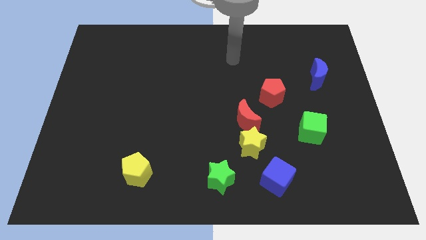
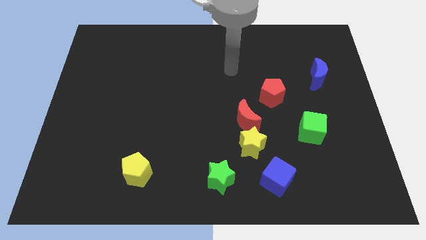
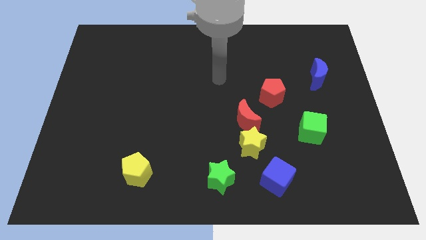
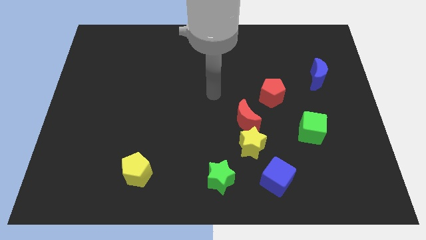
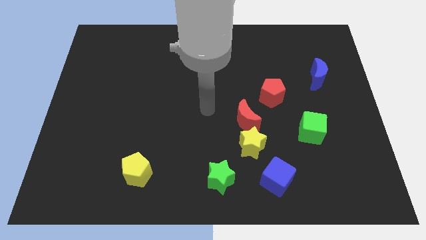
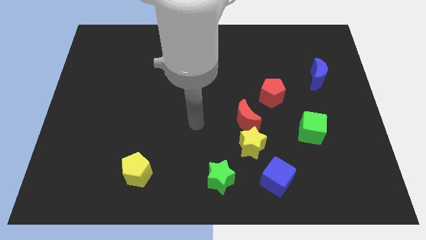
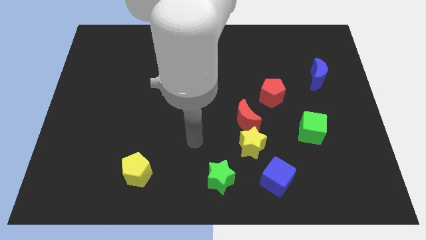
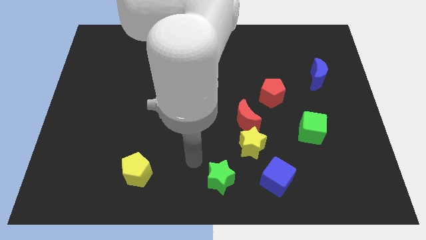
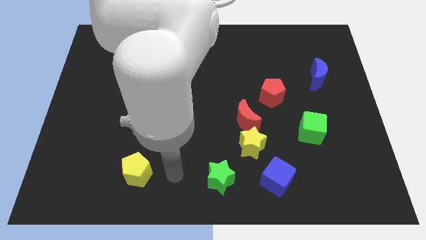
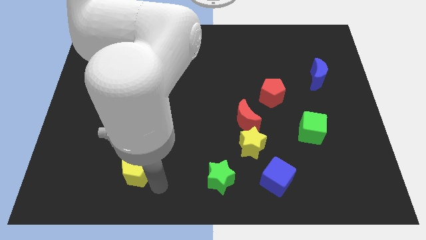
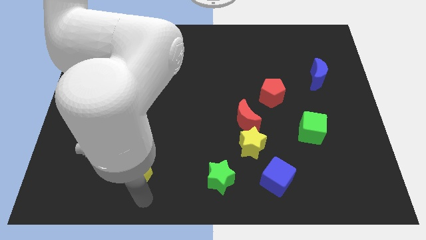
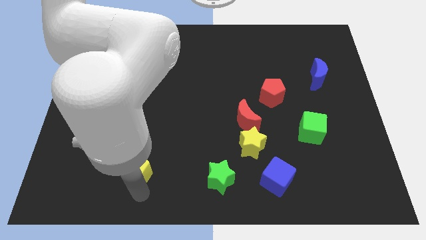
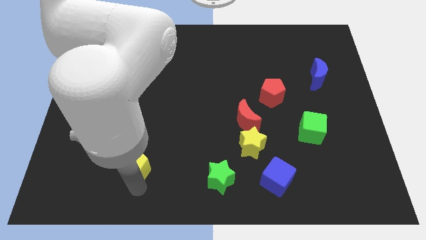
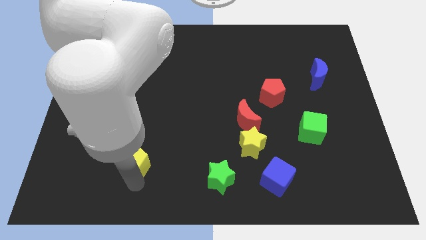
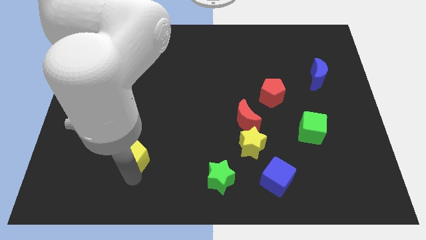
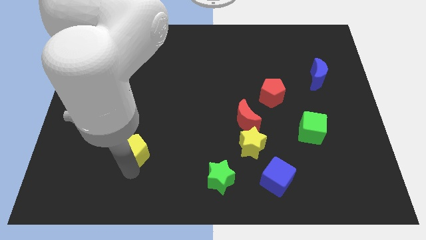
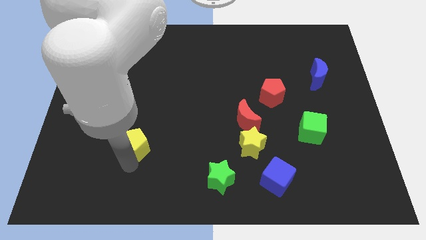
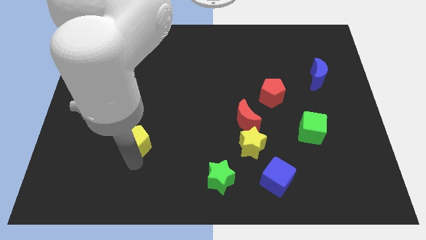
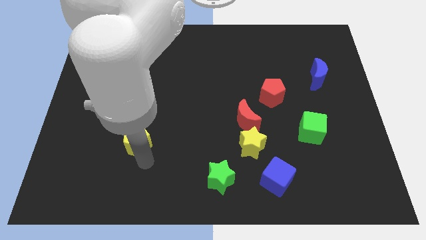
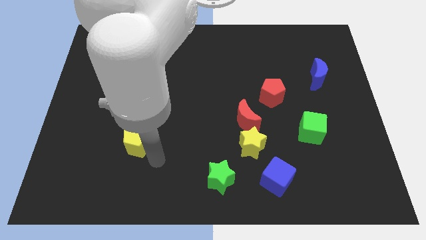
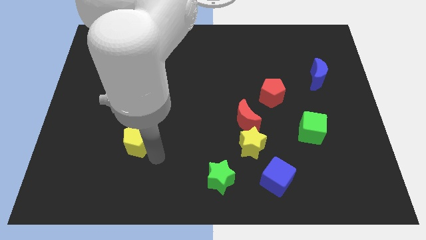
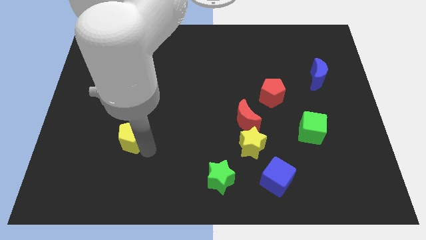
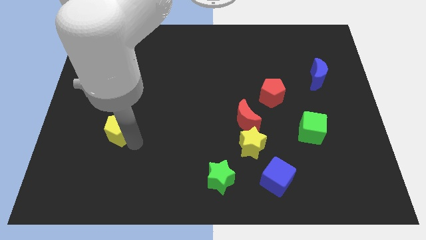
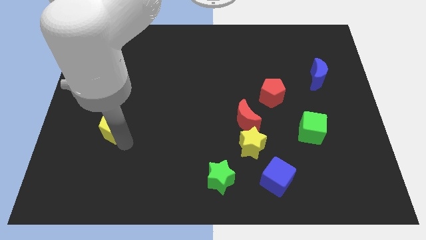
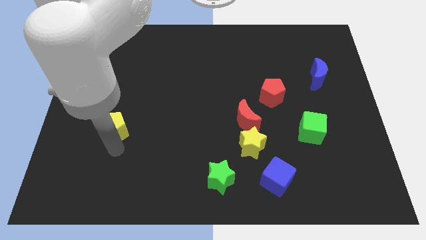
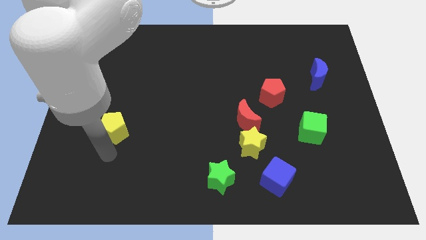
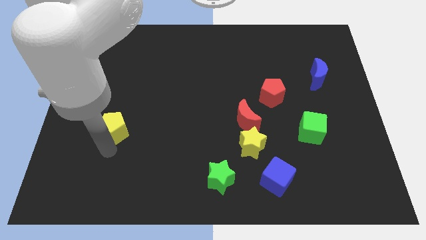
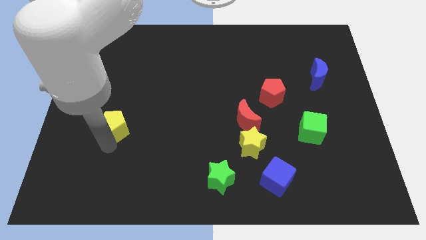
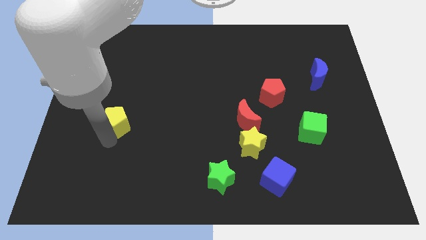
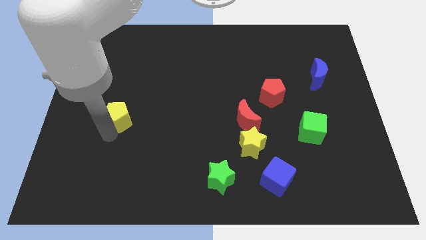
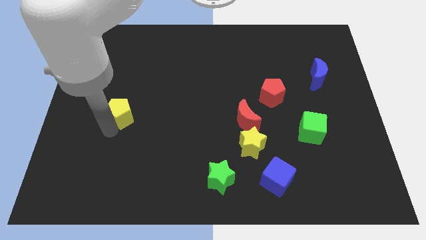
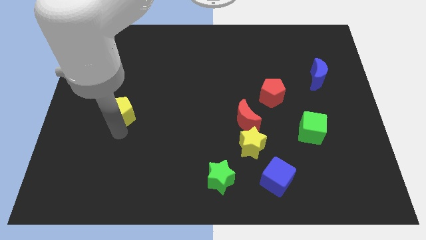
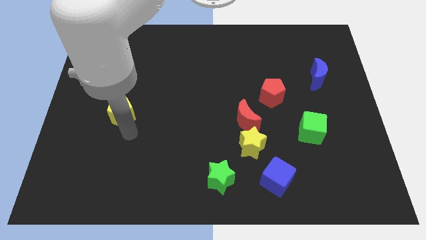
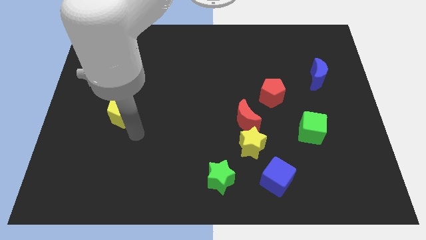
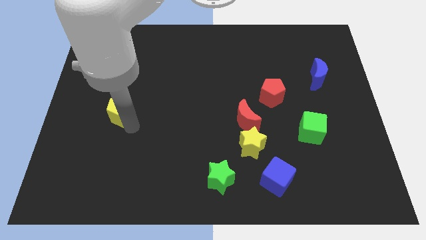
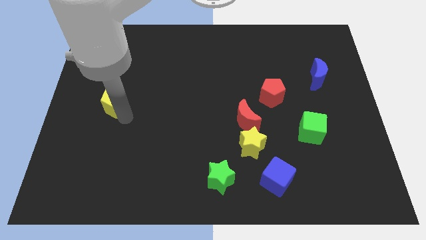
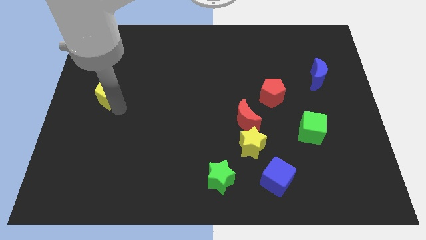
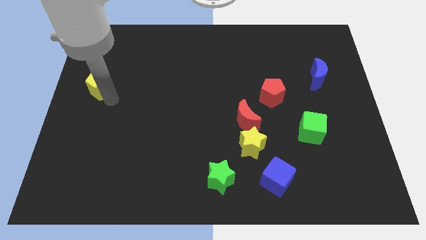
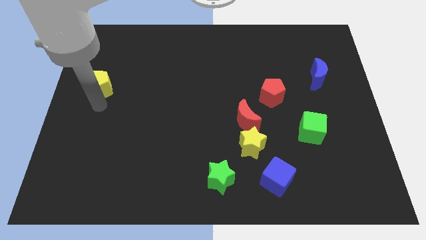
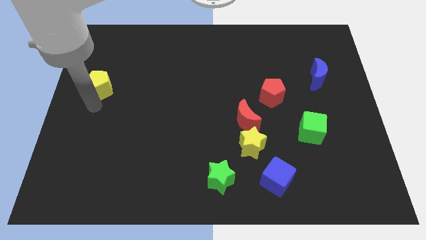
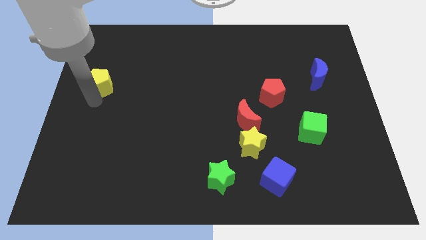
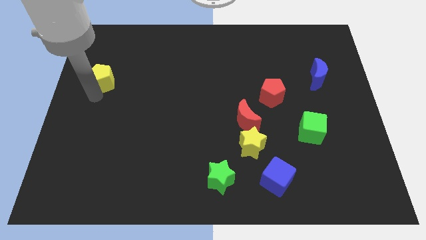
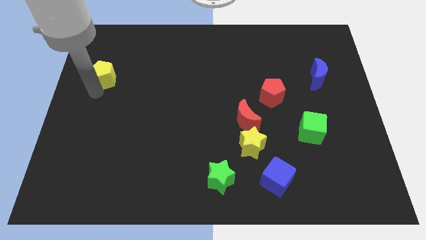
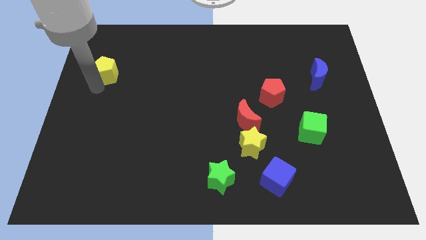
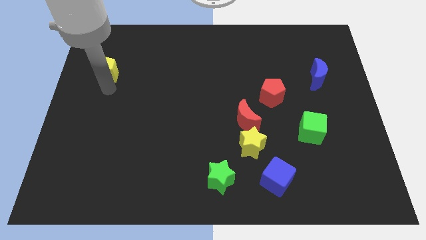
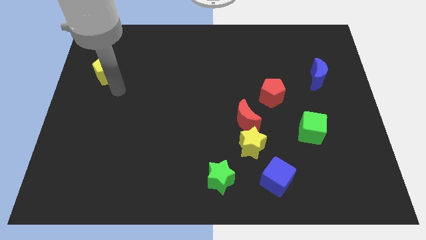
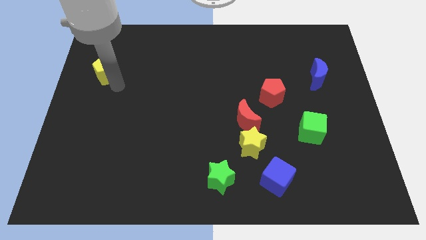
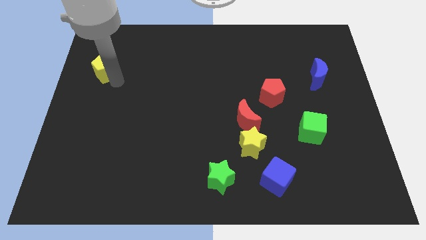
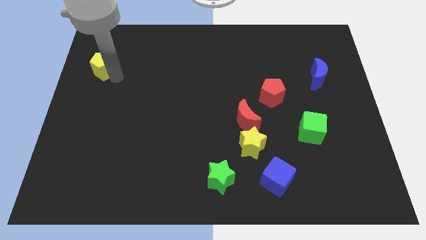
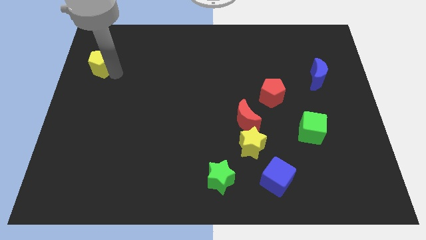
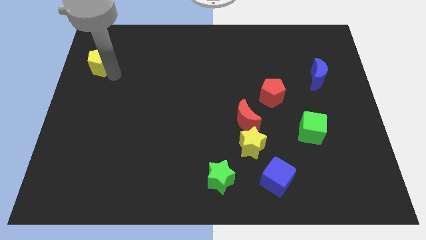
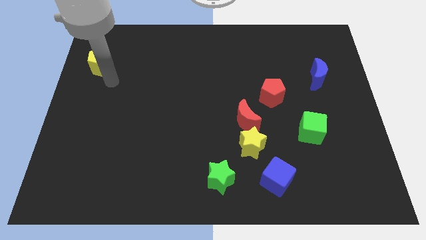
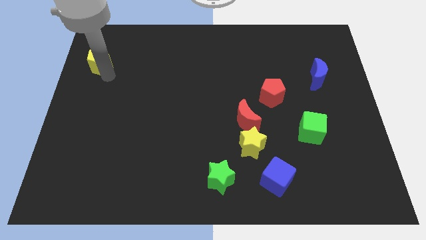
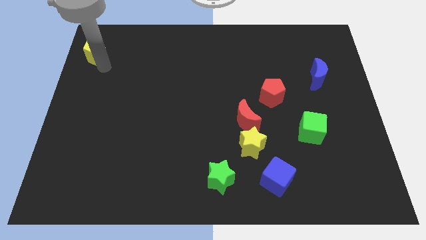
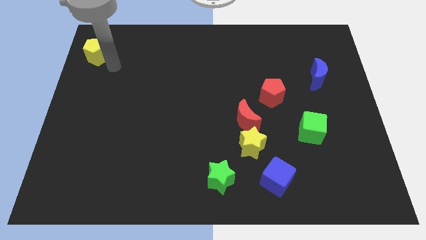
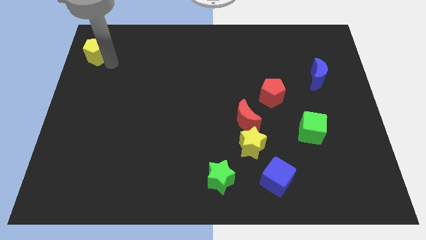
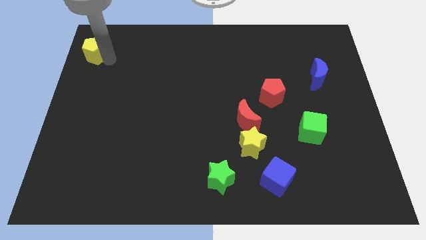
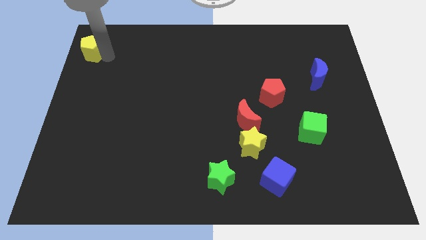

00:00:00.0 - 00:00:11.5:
put the yellow pentagon to the top left of the board

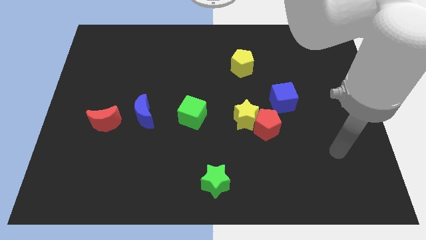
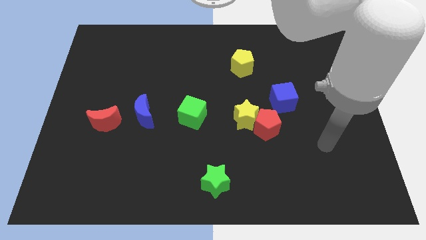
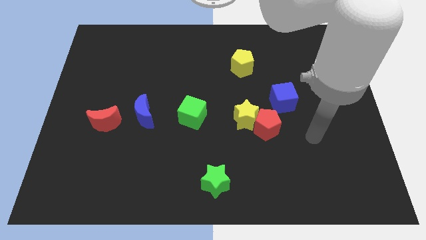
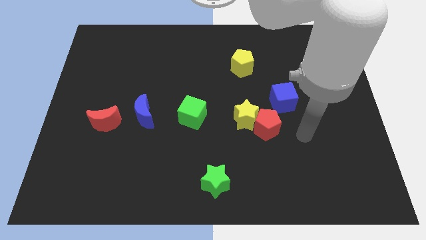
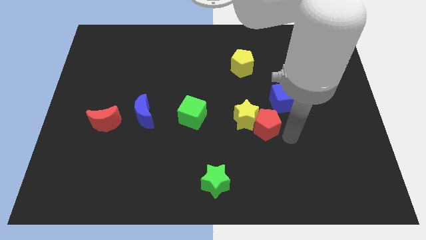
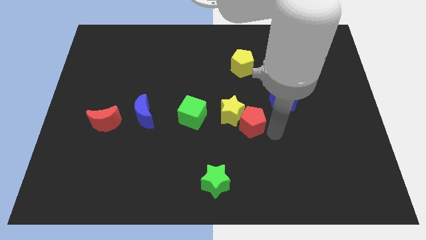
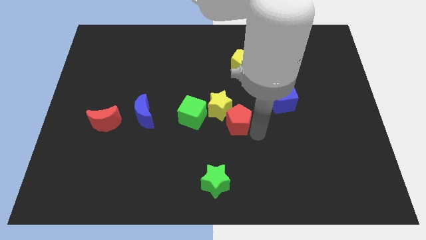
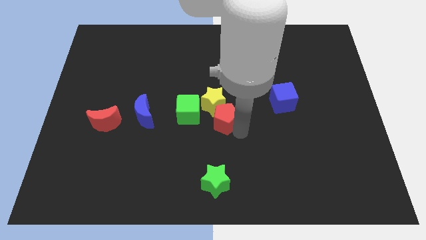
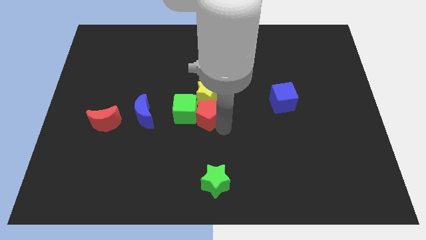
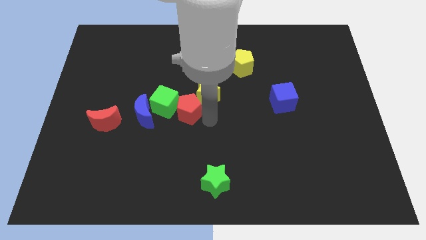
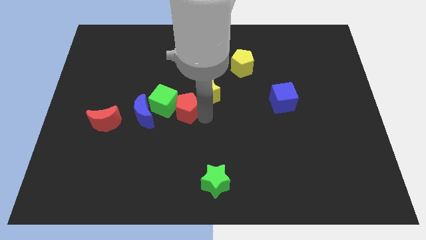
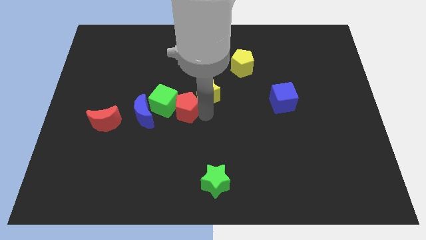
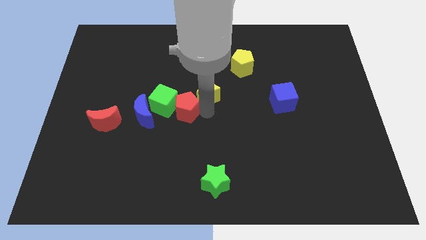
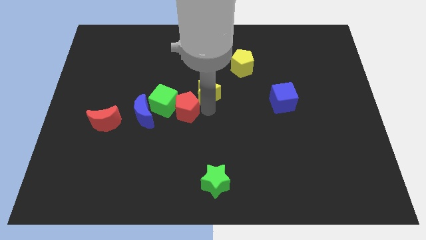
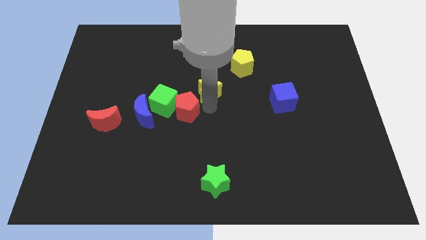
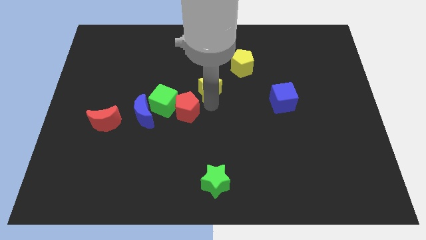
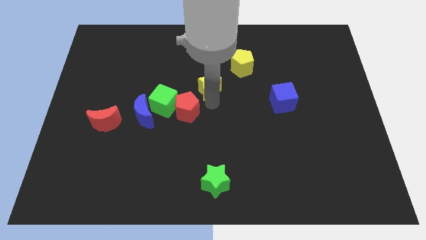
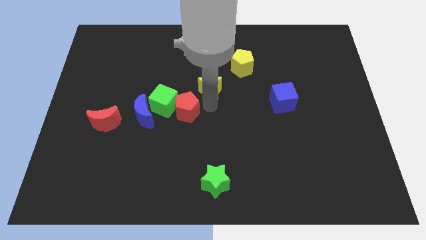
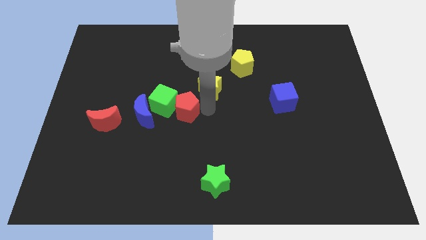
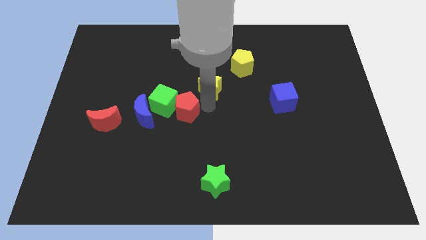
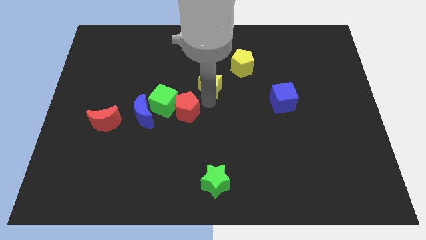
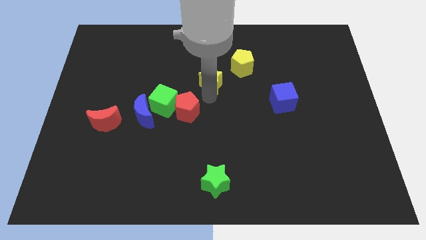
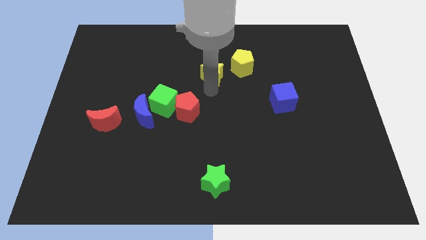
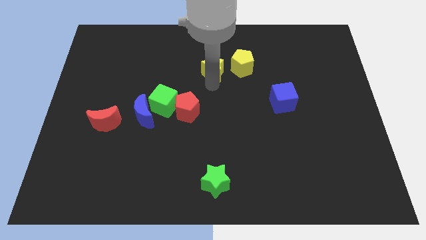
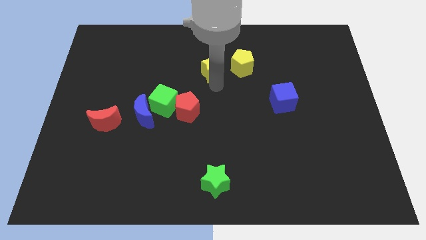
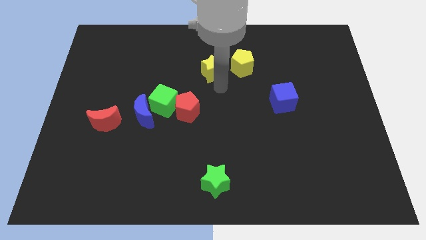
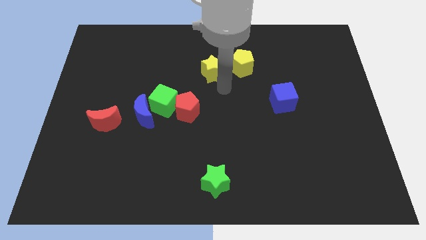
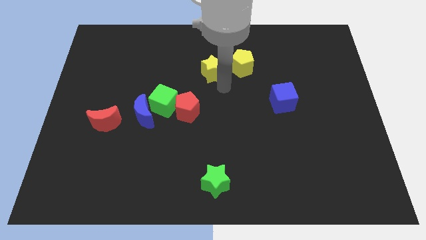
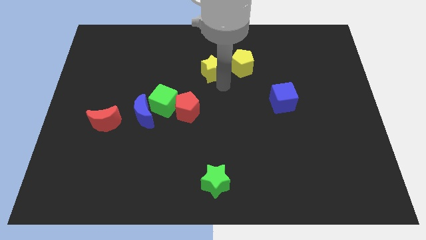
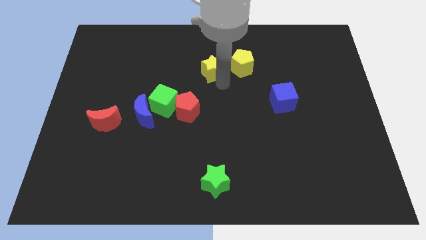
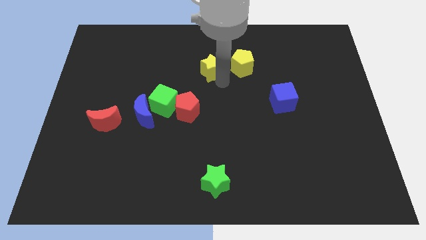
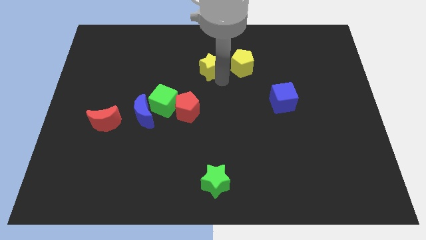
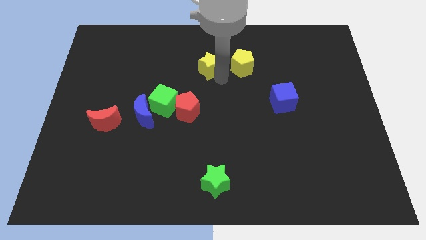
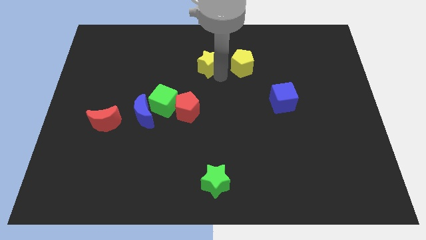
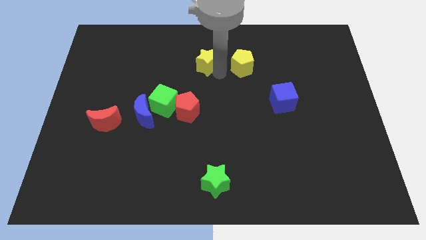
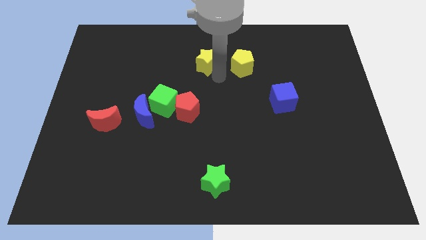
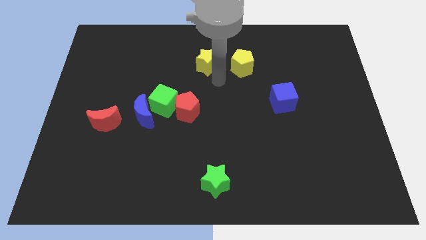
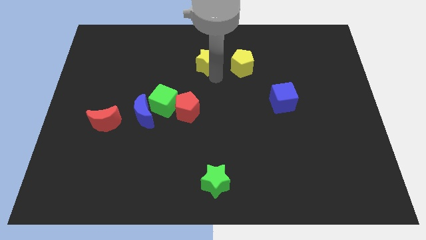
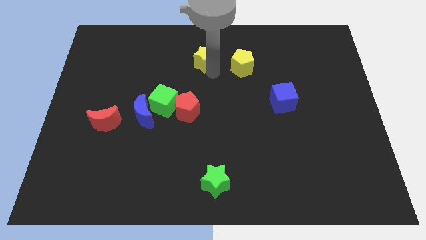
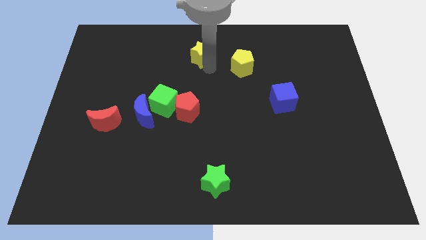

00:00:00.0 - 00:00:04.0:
put the yellow star to the towards your base
